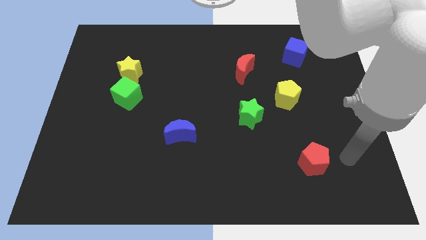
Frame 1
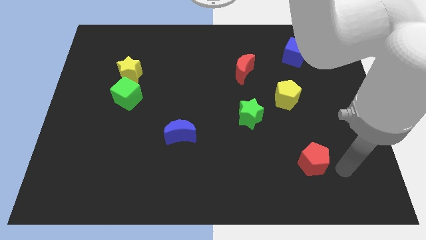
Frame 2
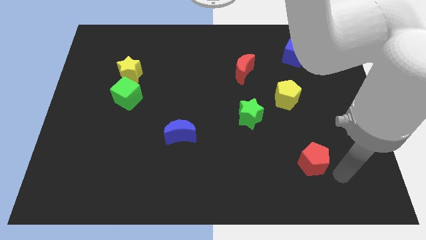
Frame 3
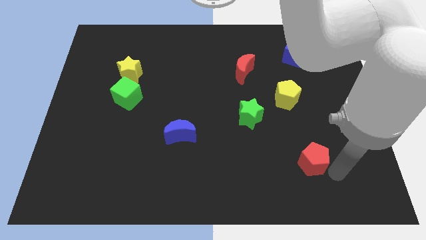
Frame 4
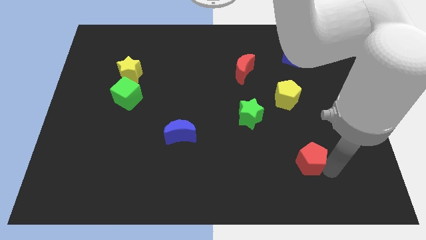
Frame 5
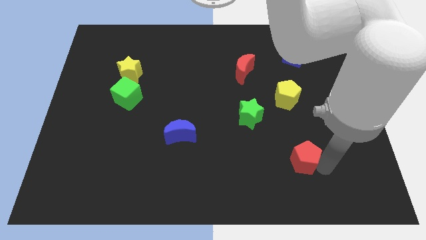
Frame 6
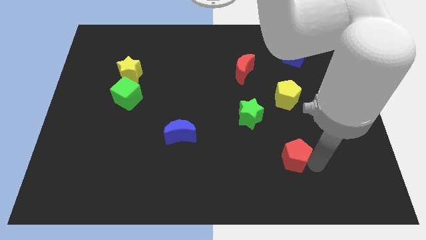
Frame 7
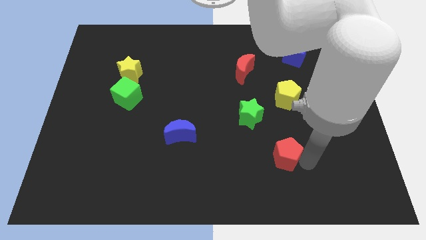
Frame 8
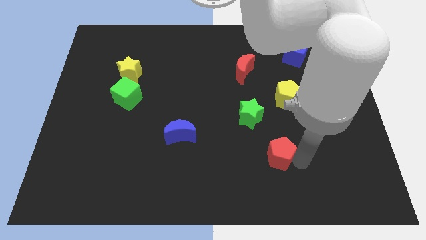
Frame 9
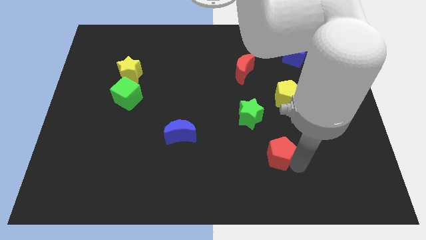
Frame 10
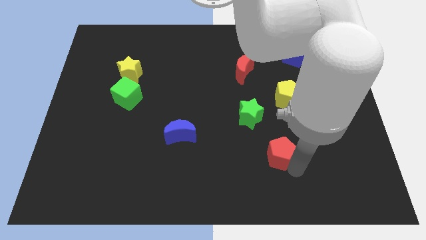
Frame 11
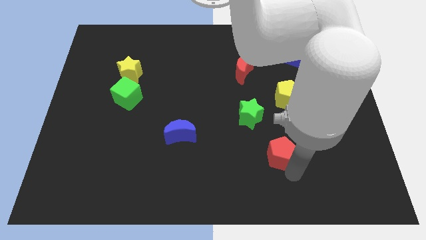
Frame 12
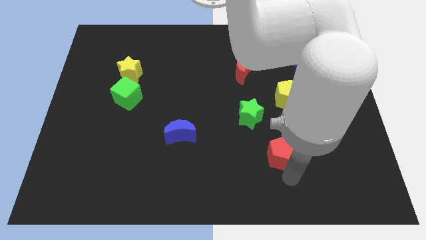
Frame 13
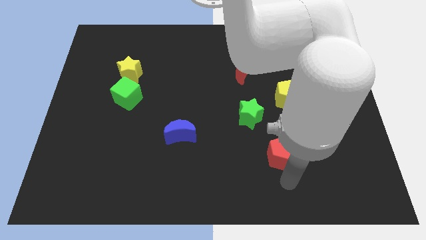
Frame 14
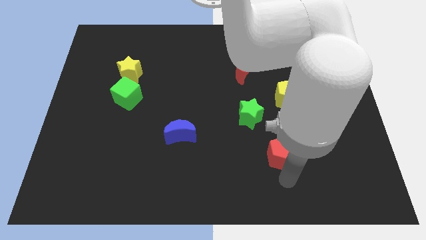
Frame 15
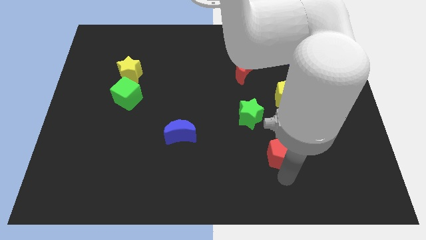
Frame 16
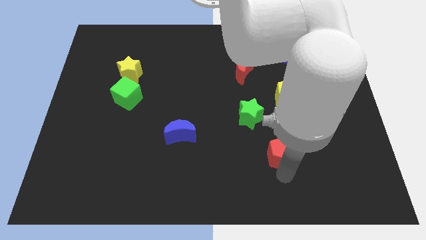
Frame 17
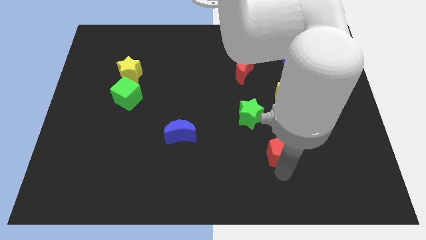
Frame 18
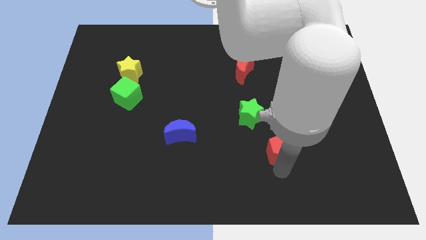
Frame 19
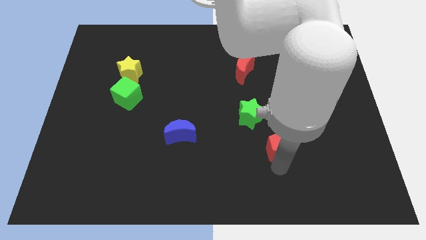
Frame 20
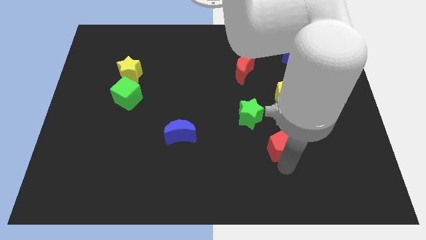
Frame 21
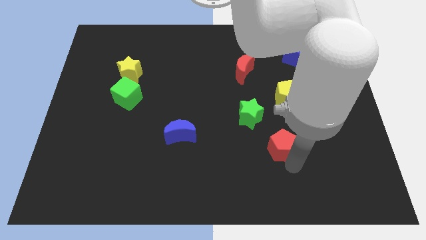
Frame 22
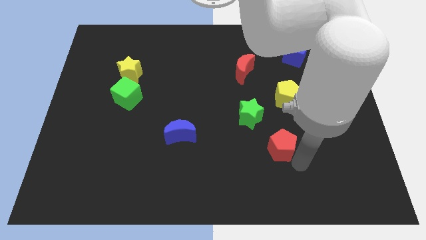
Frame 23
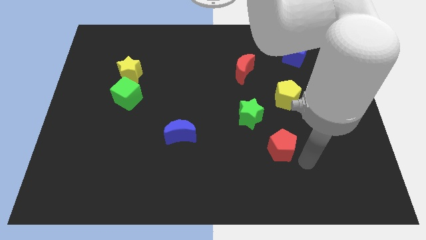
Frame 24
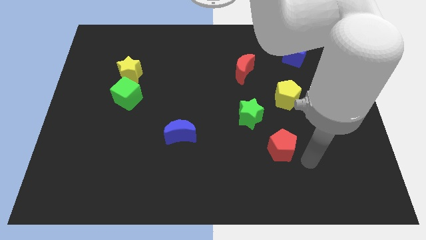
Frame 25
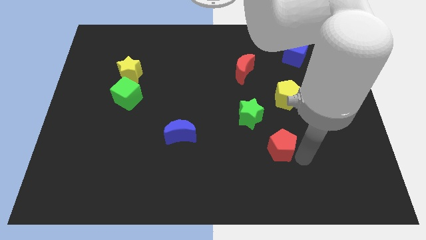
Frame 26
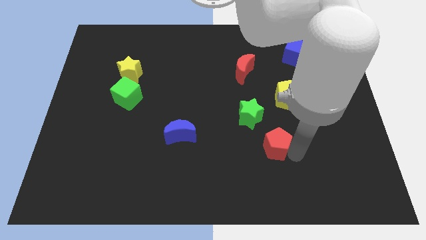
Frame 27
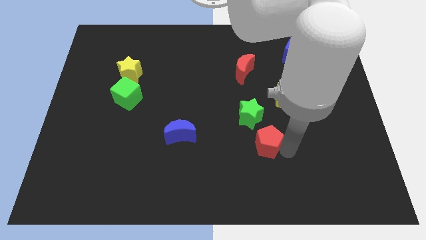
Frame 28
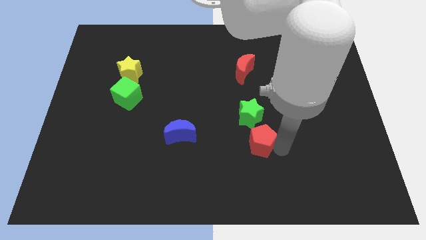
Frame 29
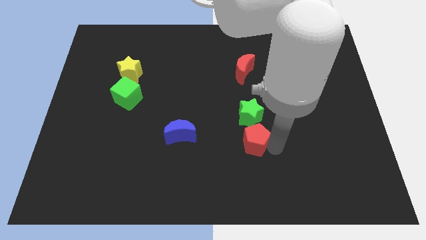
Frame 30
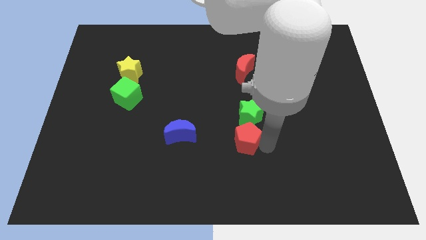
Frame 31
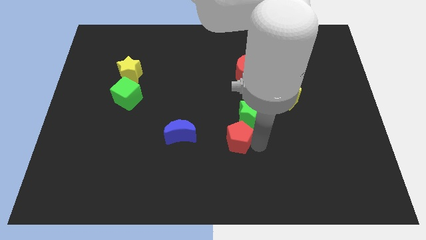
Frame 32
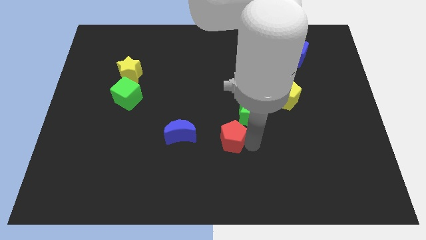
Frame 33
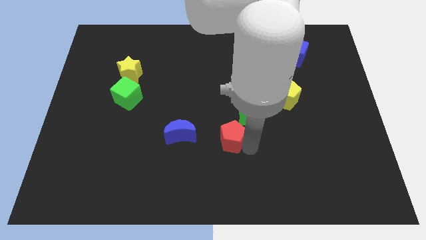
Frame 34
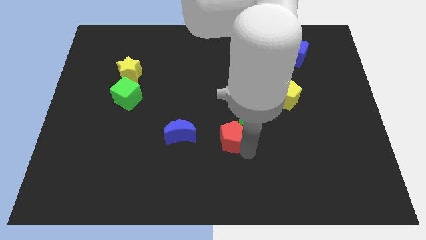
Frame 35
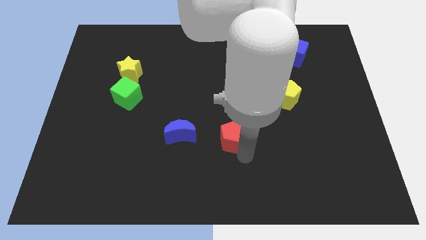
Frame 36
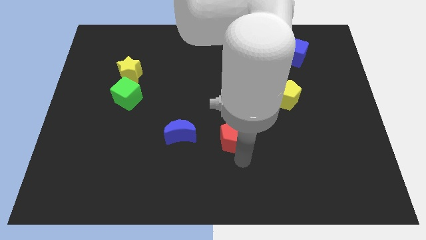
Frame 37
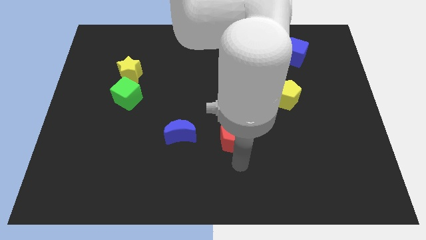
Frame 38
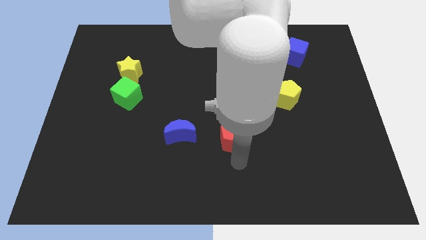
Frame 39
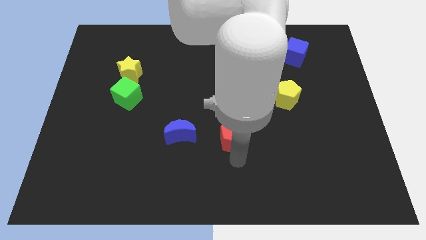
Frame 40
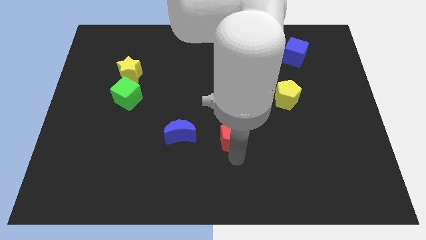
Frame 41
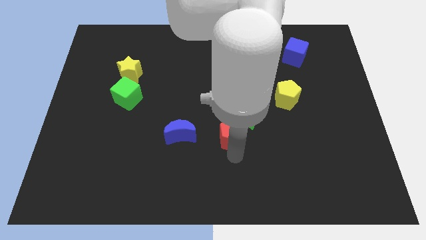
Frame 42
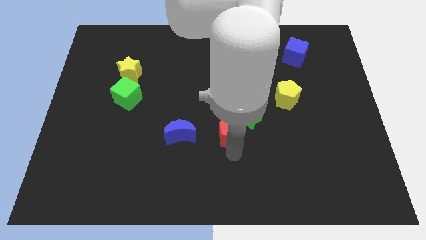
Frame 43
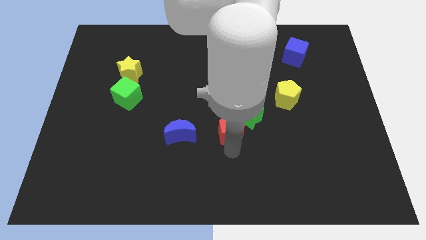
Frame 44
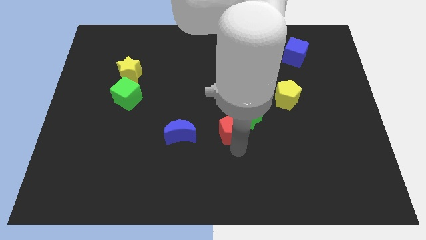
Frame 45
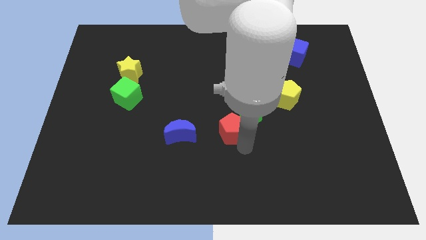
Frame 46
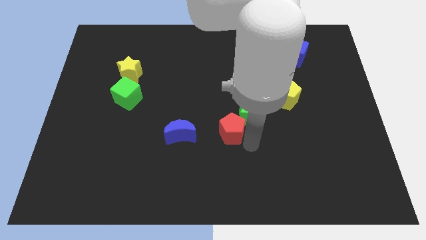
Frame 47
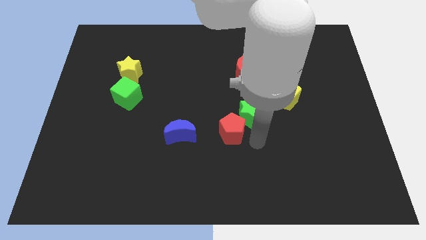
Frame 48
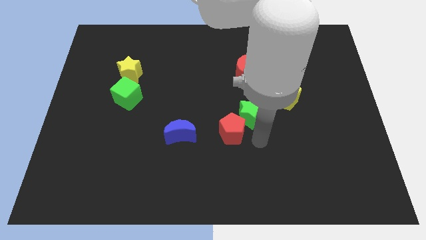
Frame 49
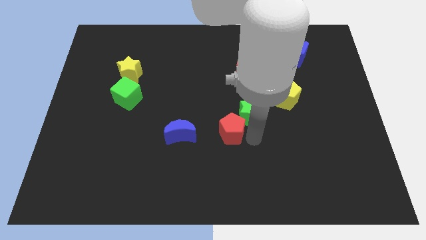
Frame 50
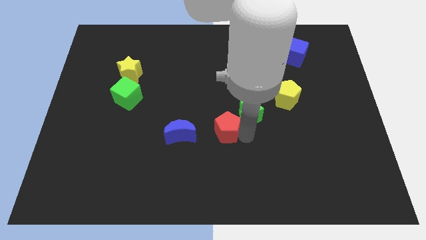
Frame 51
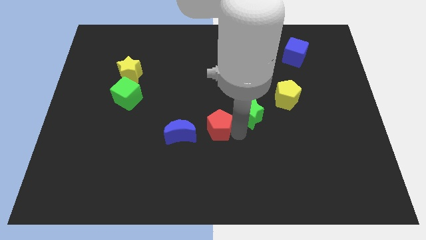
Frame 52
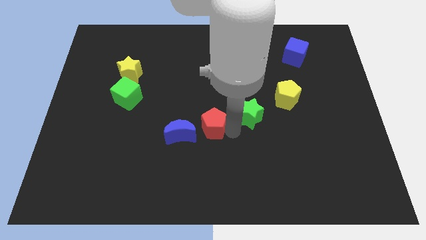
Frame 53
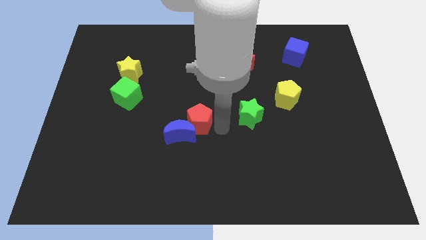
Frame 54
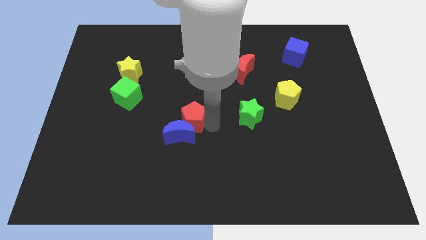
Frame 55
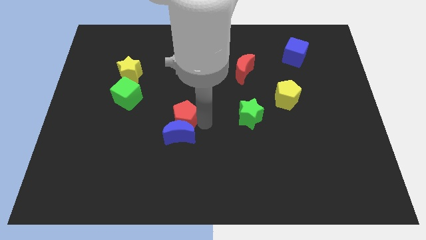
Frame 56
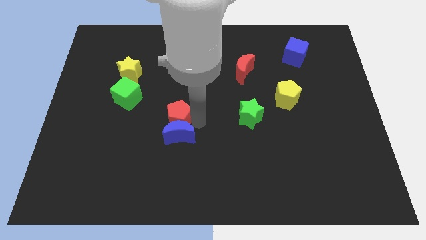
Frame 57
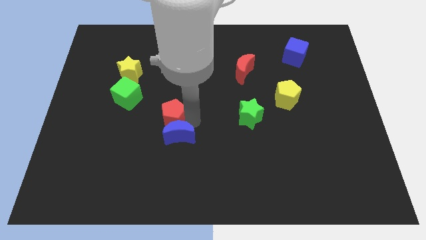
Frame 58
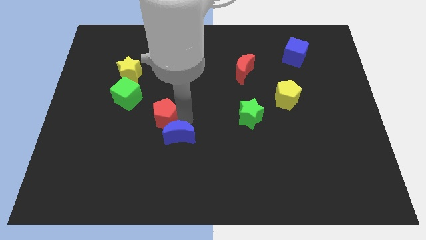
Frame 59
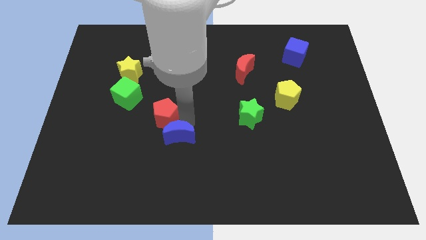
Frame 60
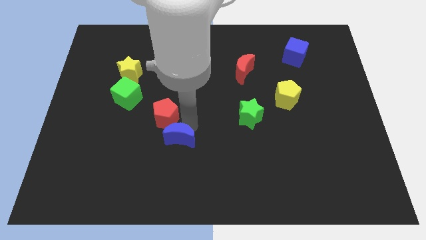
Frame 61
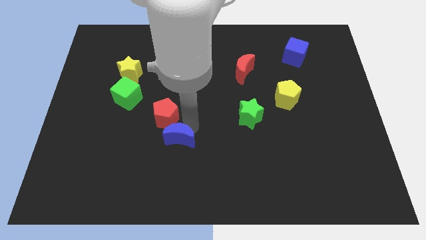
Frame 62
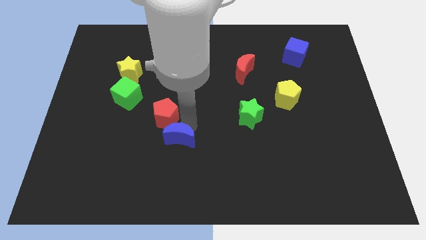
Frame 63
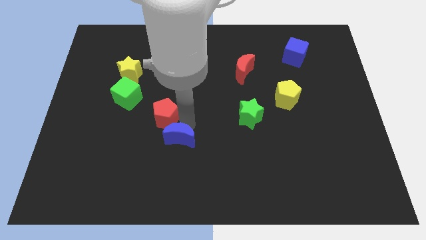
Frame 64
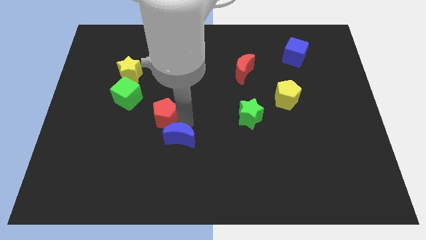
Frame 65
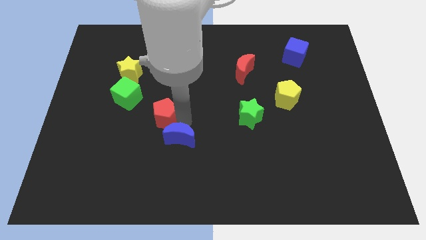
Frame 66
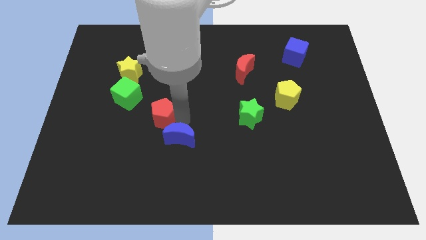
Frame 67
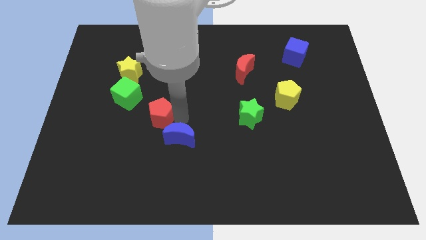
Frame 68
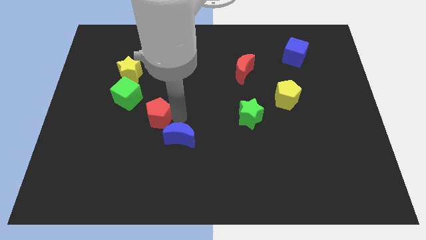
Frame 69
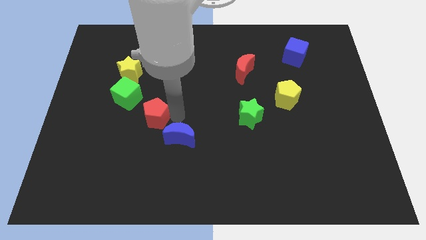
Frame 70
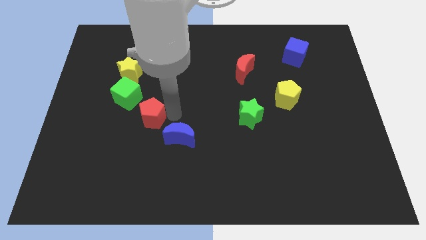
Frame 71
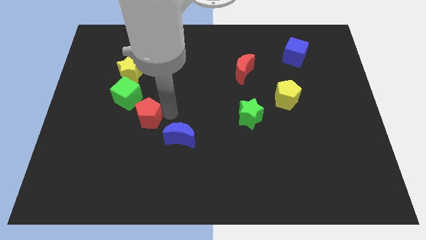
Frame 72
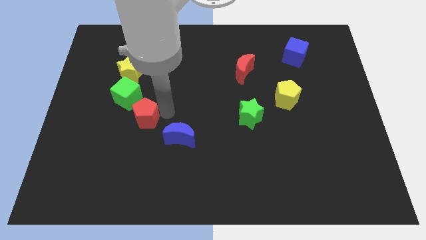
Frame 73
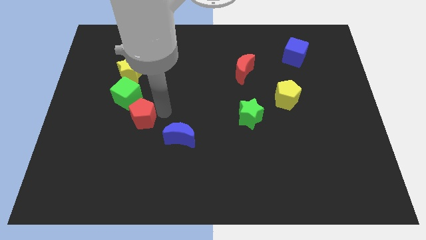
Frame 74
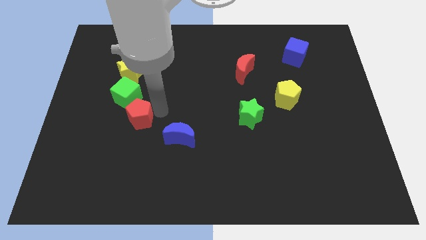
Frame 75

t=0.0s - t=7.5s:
put the red pentagon below the yellow star

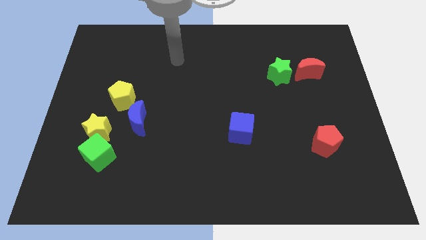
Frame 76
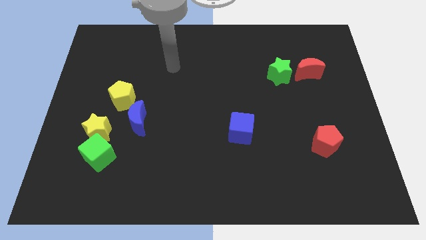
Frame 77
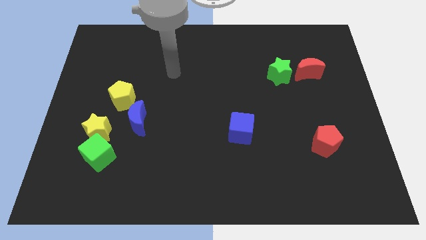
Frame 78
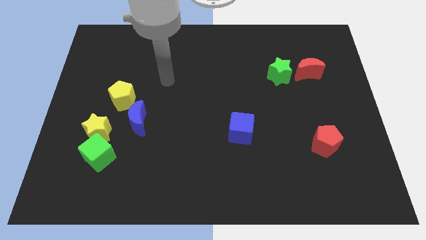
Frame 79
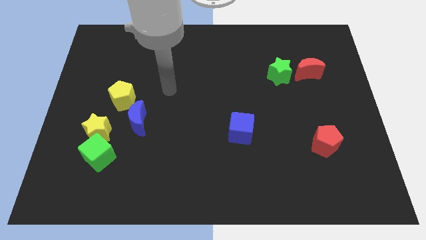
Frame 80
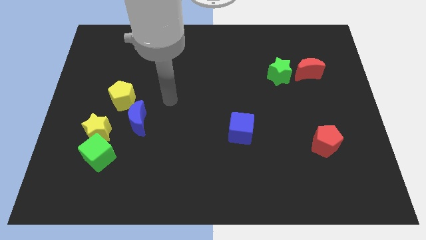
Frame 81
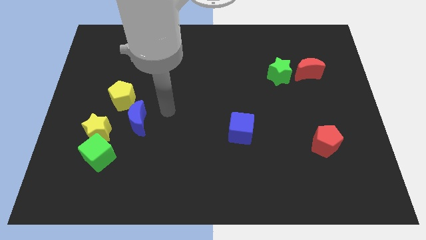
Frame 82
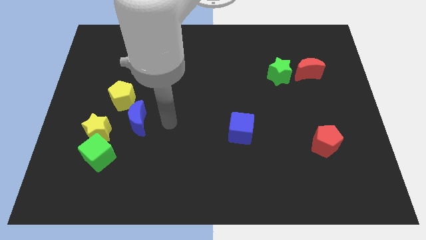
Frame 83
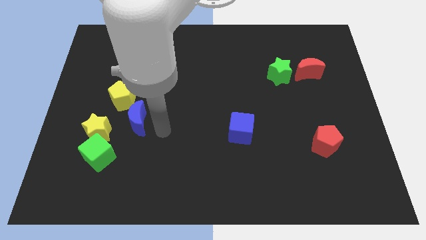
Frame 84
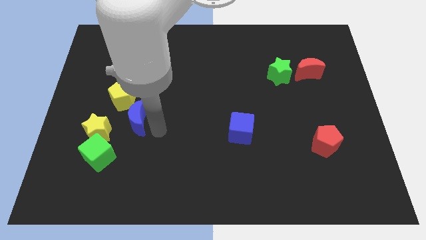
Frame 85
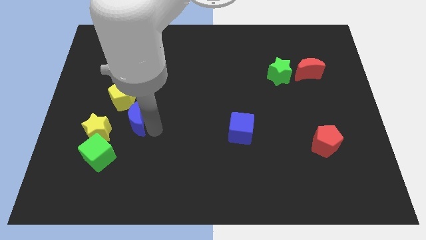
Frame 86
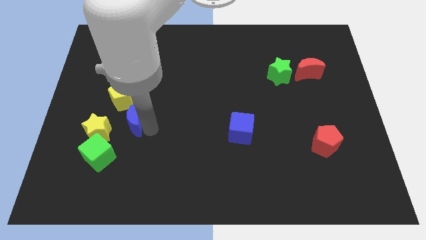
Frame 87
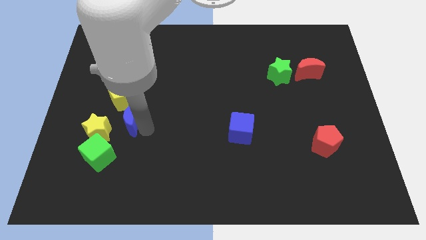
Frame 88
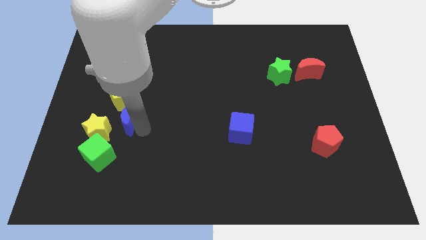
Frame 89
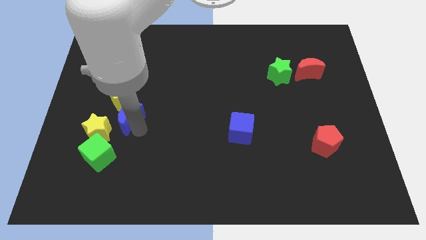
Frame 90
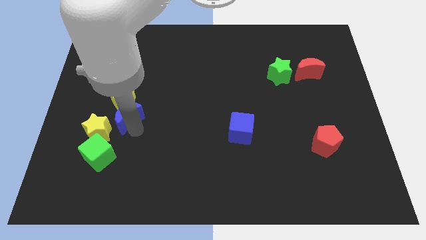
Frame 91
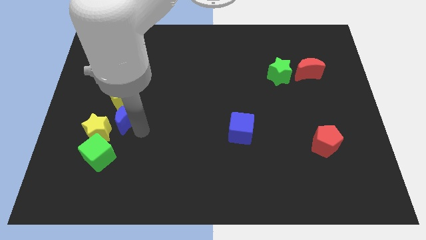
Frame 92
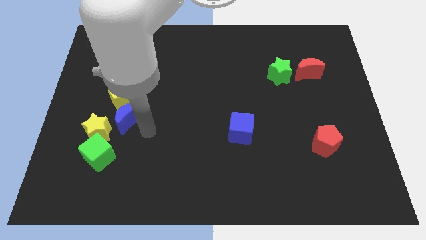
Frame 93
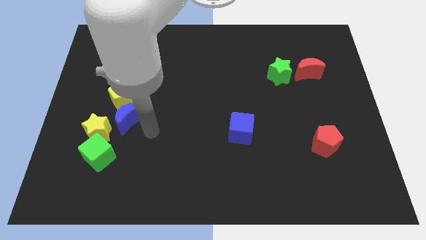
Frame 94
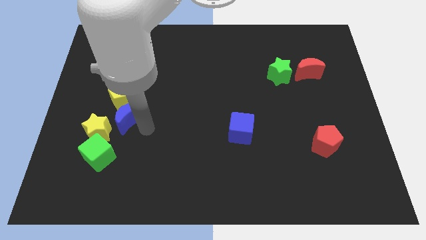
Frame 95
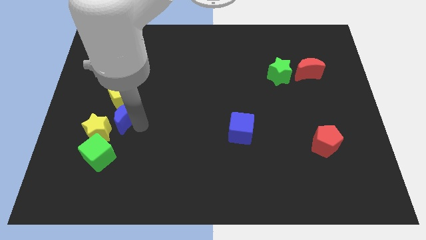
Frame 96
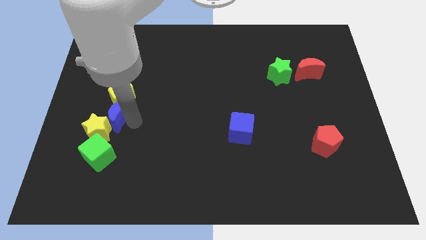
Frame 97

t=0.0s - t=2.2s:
put the blue moon to the top of the yellow star
